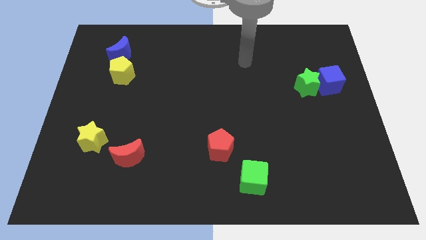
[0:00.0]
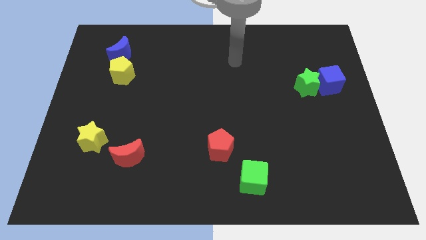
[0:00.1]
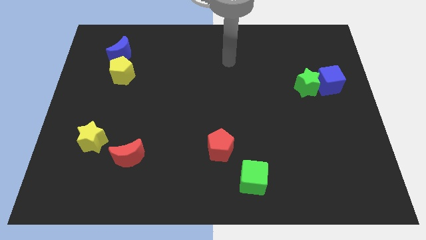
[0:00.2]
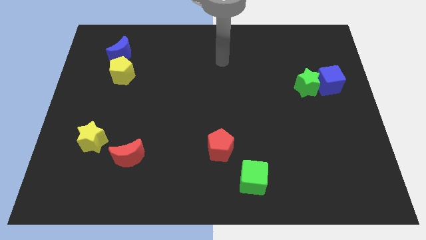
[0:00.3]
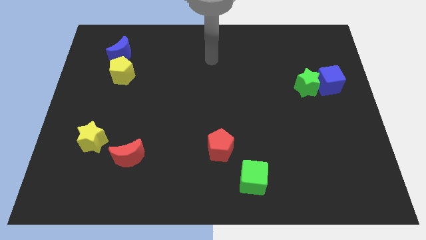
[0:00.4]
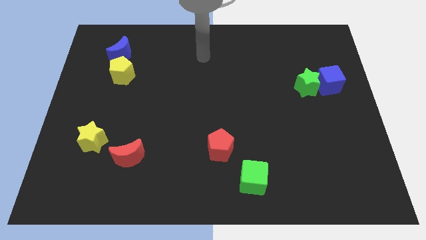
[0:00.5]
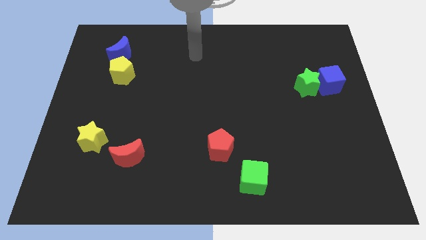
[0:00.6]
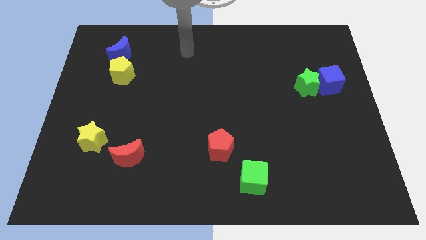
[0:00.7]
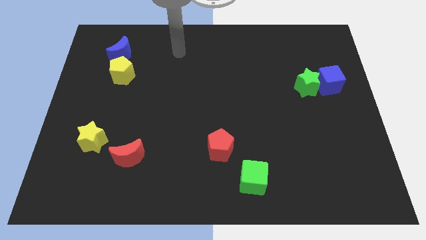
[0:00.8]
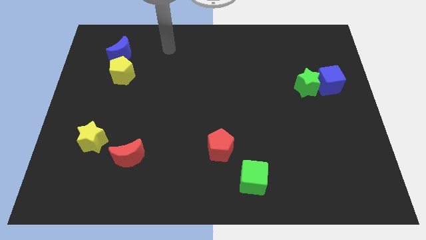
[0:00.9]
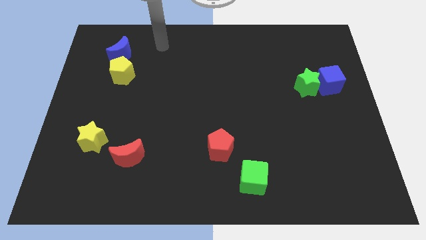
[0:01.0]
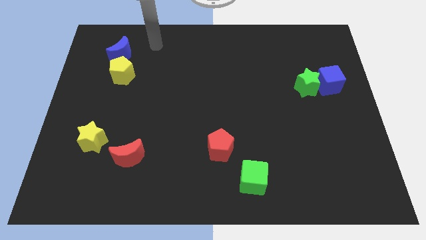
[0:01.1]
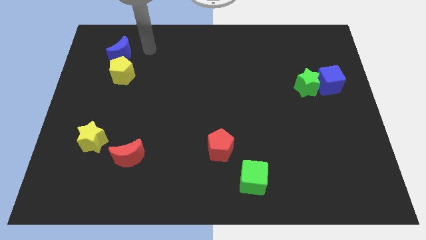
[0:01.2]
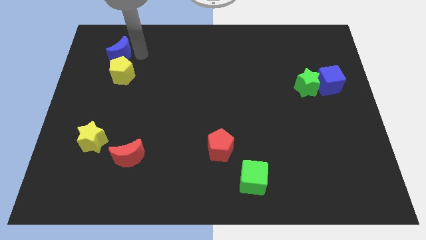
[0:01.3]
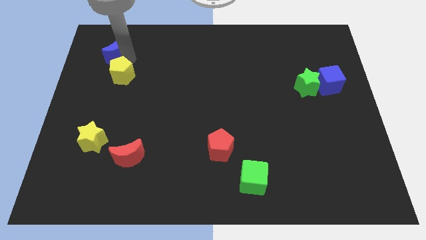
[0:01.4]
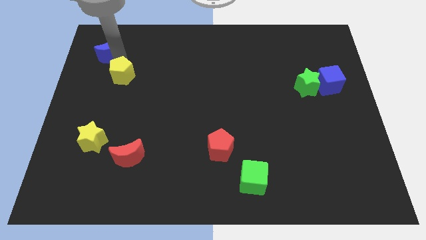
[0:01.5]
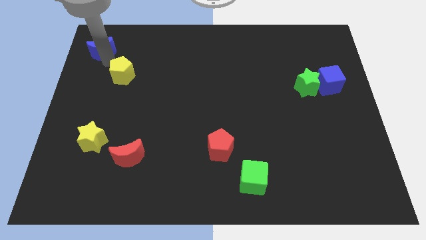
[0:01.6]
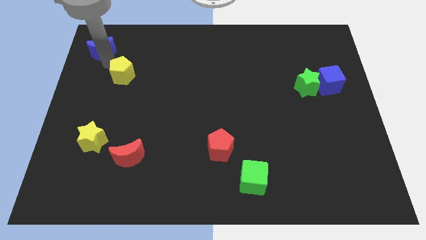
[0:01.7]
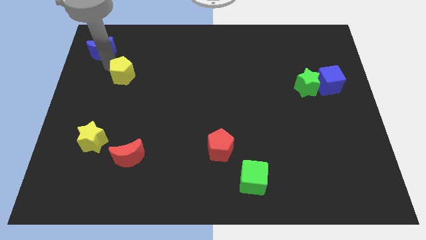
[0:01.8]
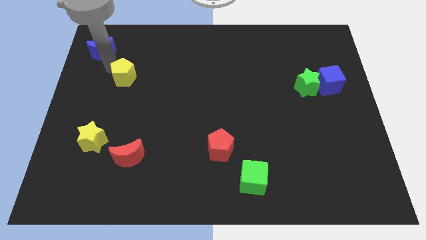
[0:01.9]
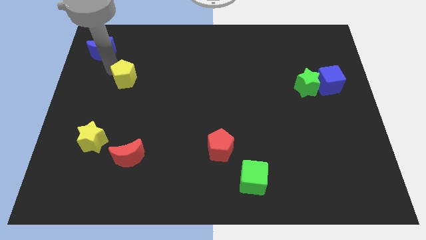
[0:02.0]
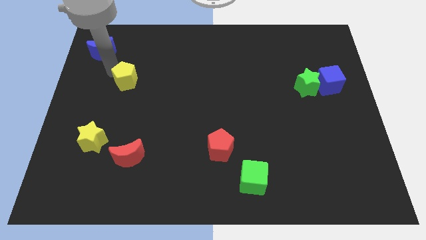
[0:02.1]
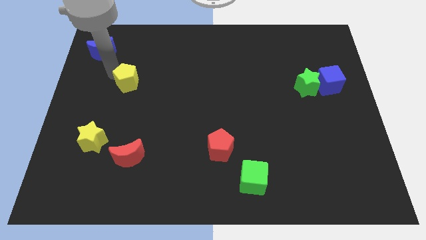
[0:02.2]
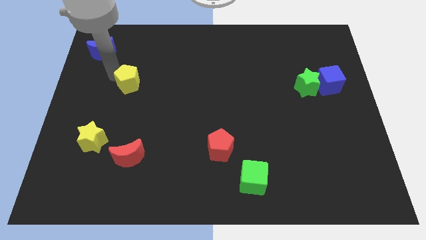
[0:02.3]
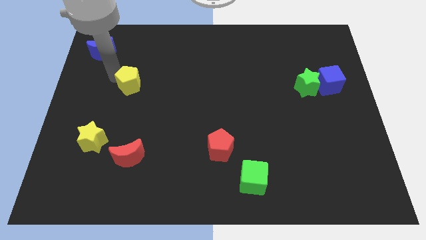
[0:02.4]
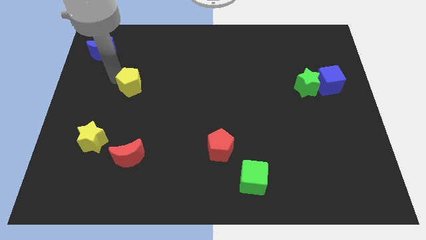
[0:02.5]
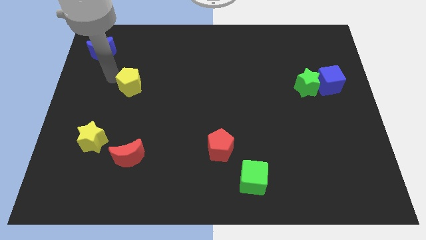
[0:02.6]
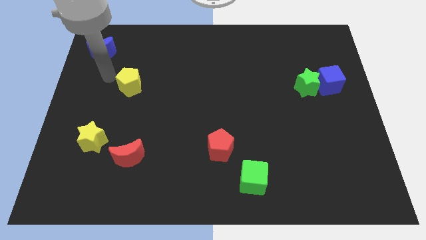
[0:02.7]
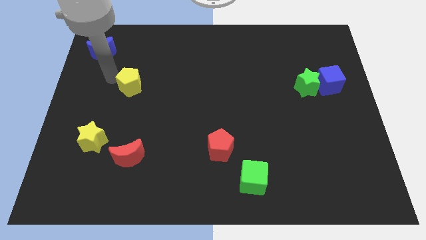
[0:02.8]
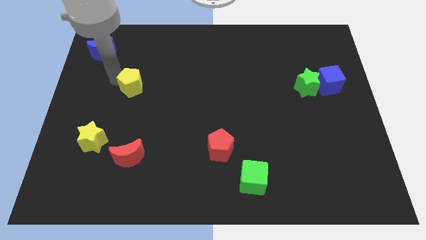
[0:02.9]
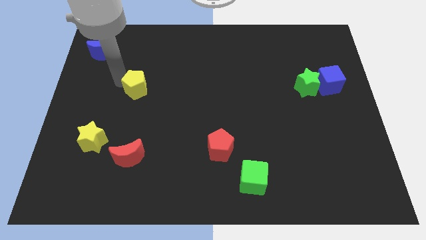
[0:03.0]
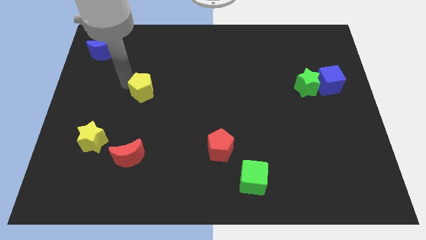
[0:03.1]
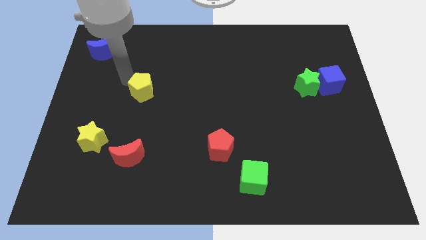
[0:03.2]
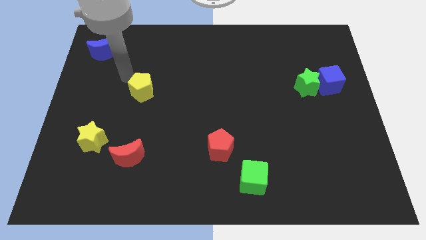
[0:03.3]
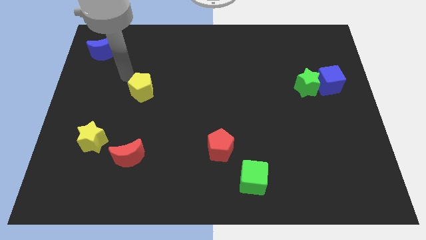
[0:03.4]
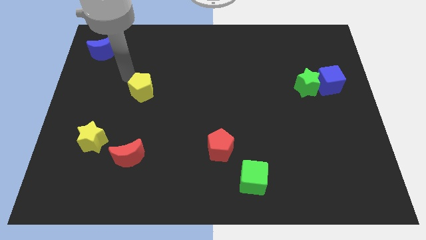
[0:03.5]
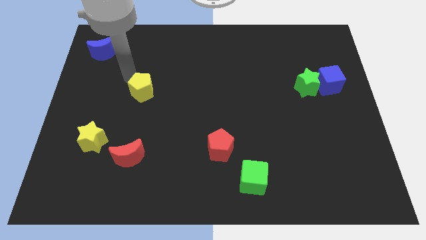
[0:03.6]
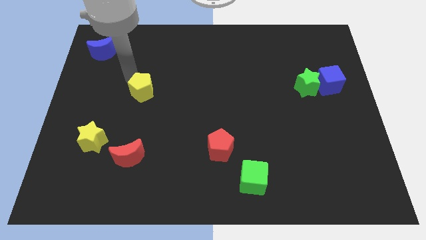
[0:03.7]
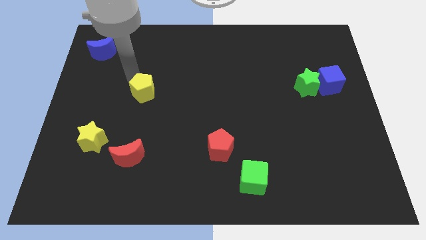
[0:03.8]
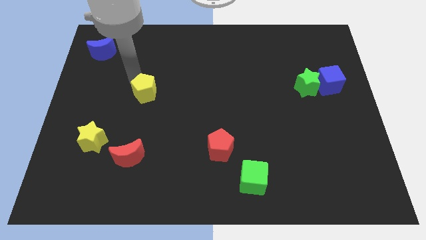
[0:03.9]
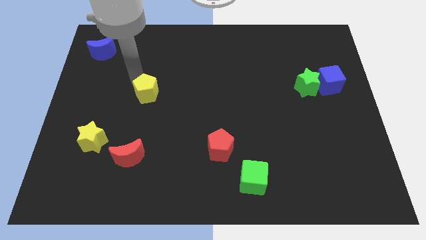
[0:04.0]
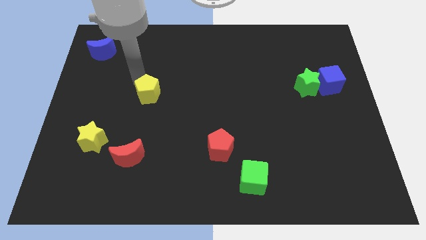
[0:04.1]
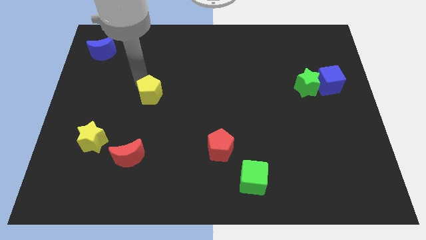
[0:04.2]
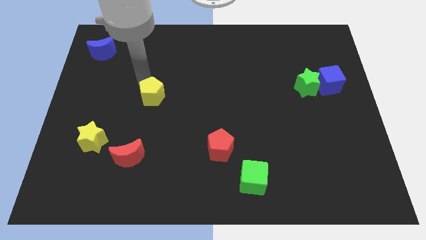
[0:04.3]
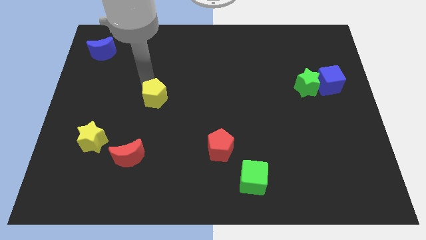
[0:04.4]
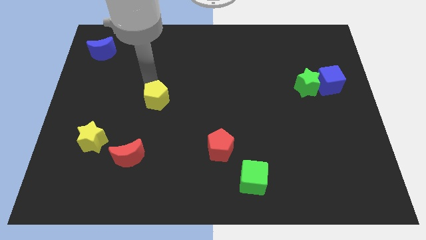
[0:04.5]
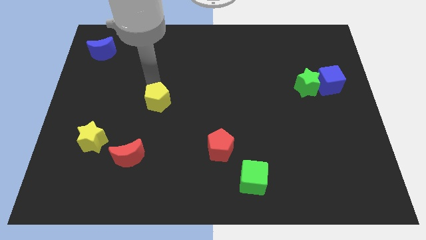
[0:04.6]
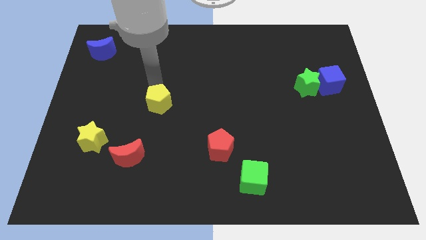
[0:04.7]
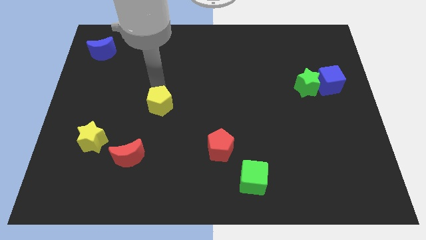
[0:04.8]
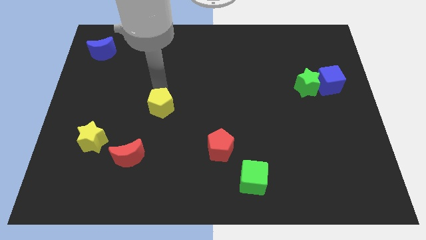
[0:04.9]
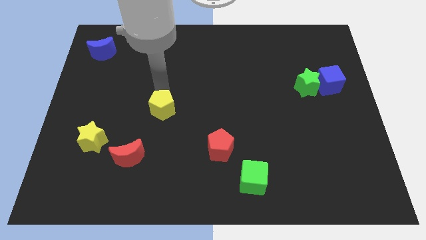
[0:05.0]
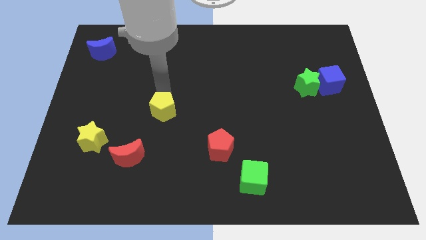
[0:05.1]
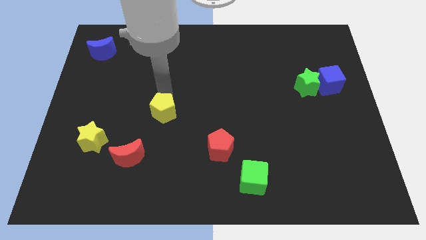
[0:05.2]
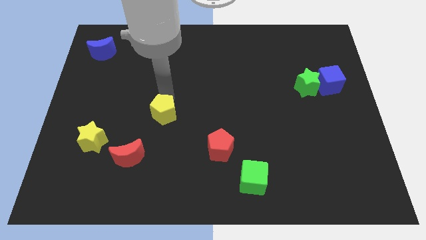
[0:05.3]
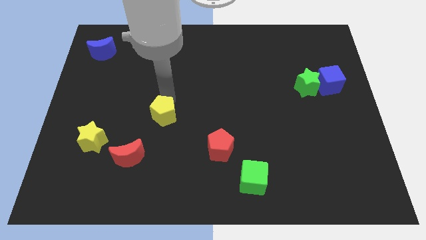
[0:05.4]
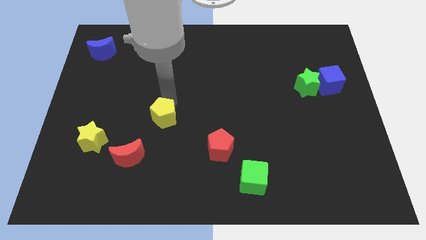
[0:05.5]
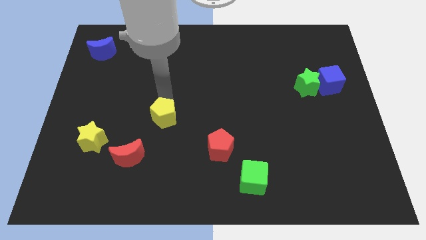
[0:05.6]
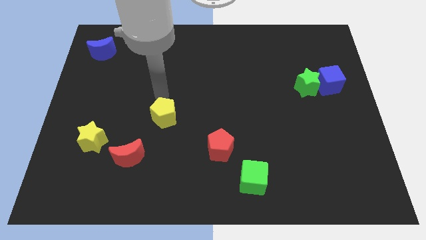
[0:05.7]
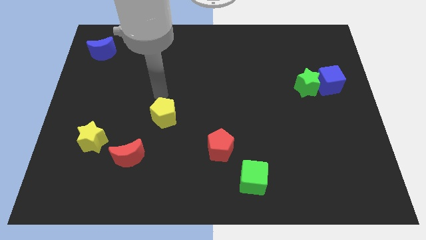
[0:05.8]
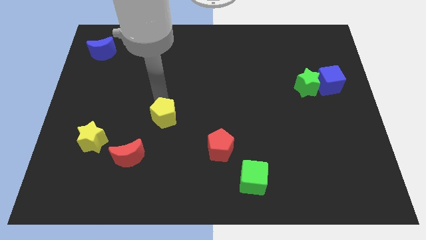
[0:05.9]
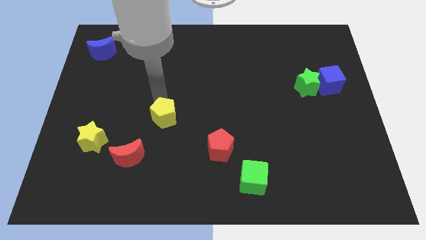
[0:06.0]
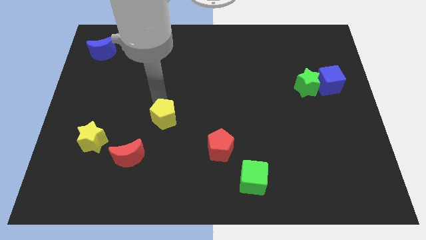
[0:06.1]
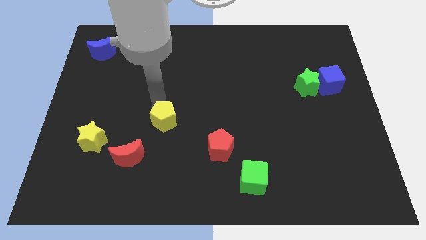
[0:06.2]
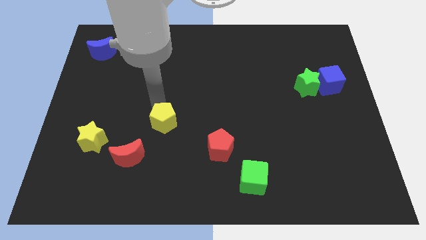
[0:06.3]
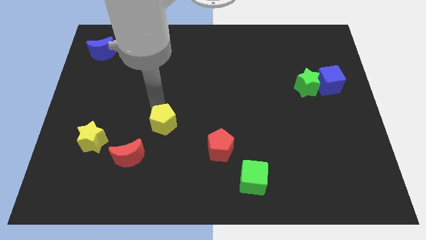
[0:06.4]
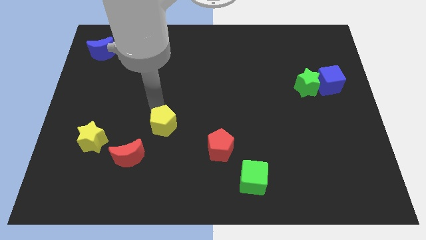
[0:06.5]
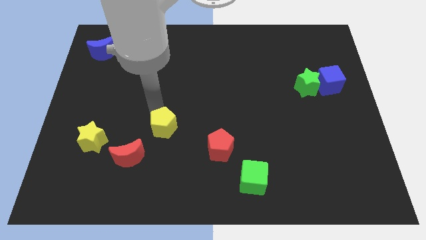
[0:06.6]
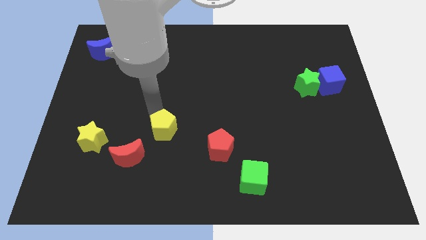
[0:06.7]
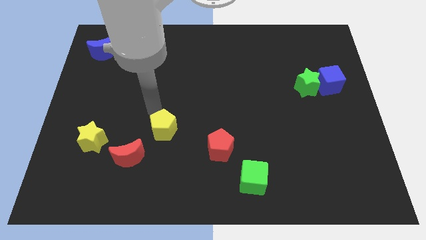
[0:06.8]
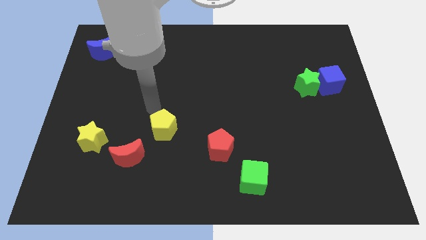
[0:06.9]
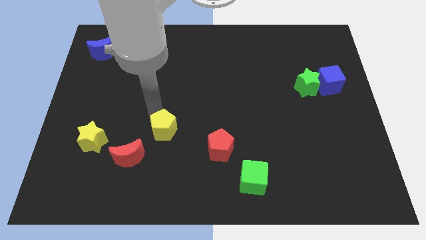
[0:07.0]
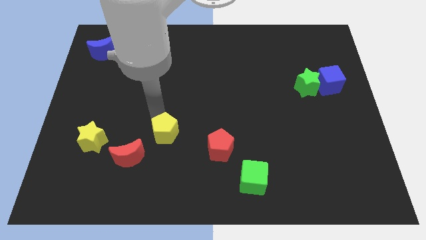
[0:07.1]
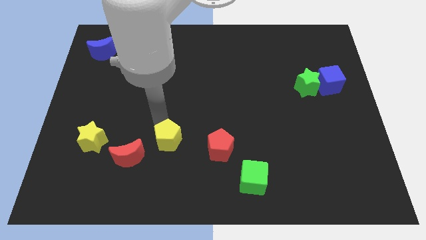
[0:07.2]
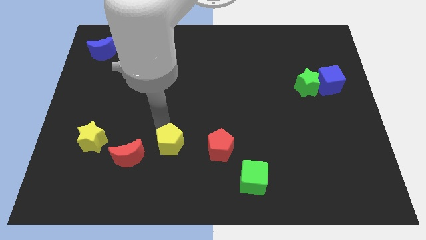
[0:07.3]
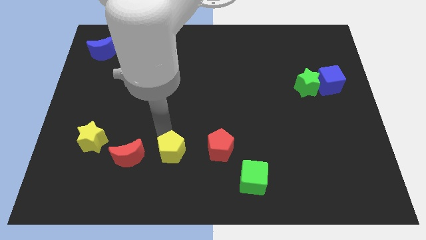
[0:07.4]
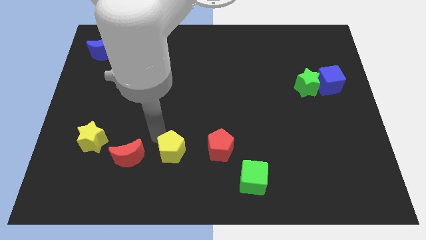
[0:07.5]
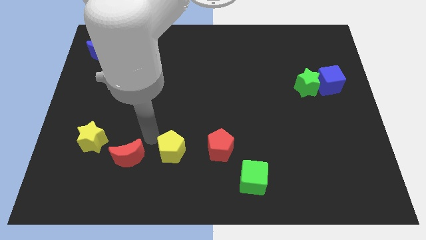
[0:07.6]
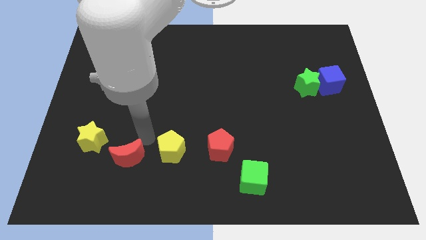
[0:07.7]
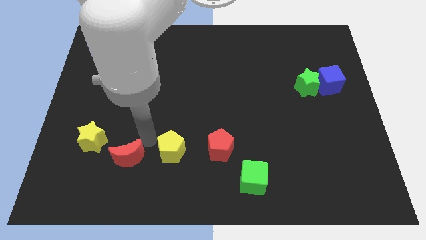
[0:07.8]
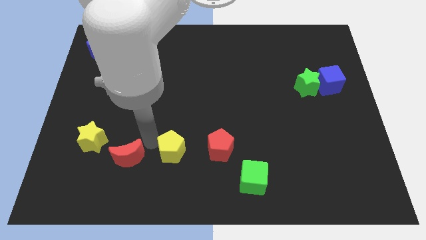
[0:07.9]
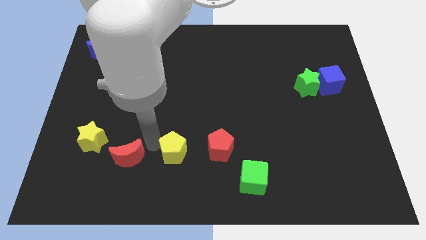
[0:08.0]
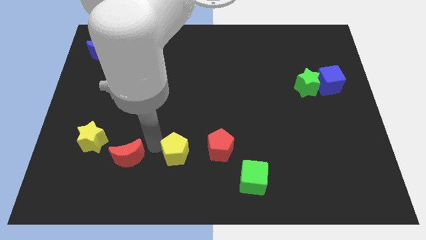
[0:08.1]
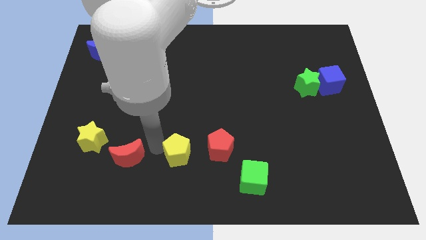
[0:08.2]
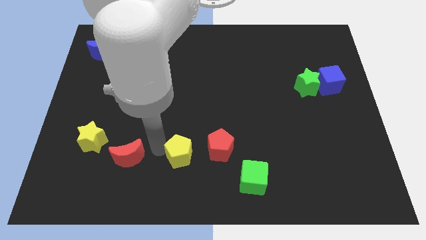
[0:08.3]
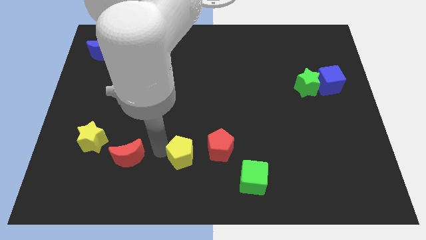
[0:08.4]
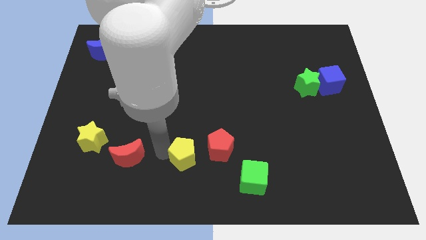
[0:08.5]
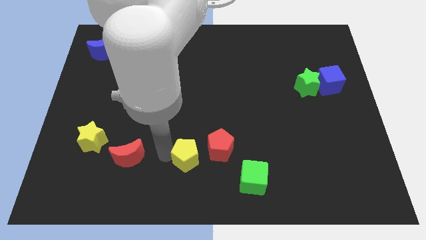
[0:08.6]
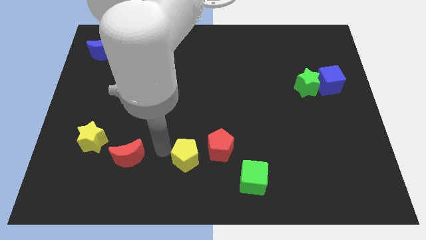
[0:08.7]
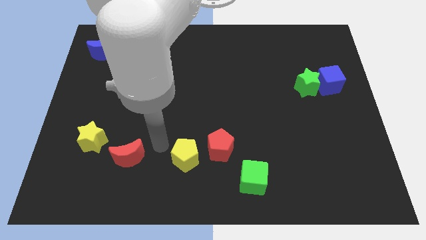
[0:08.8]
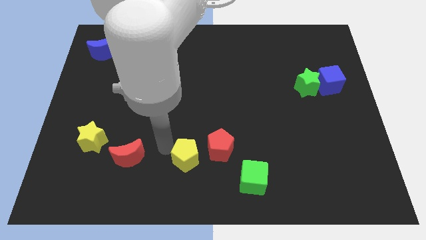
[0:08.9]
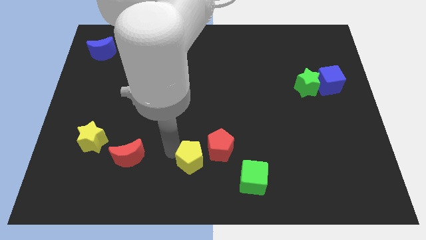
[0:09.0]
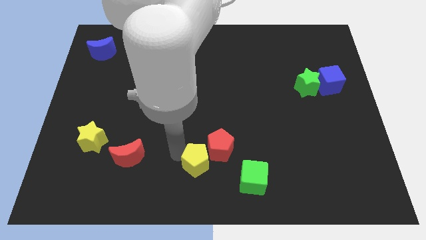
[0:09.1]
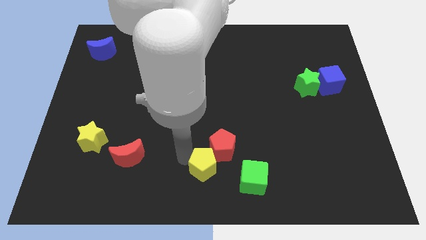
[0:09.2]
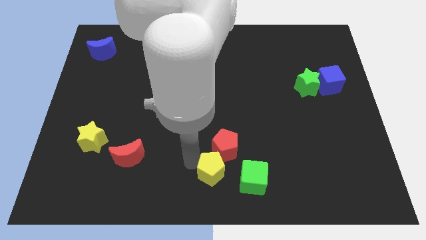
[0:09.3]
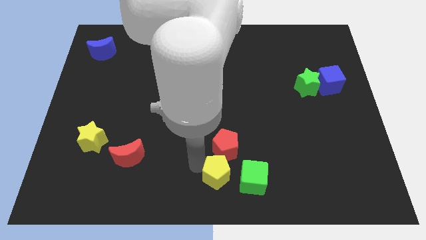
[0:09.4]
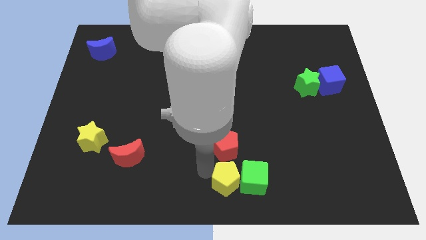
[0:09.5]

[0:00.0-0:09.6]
slide the yellow pentagon close to the green cube
